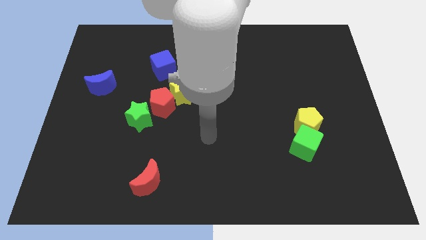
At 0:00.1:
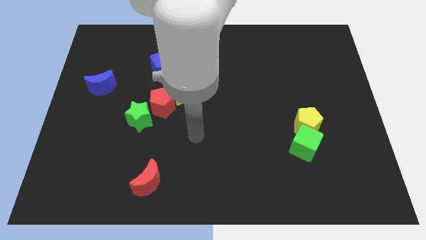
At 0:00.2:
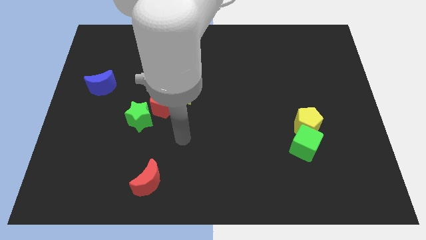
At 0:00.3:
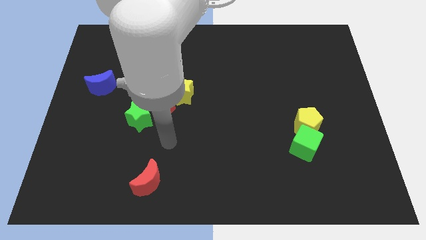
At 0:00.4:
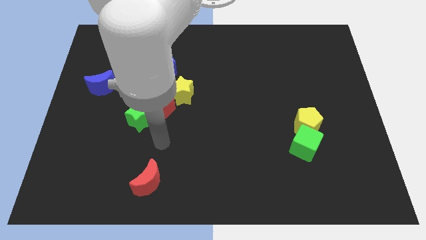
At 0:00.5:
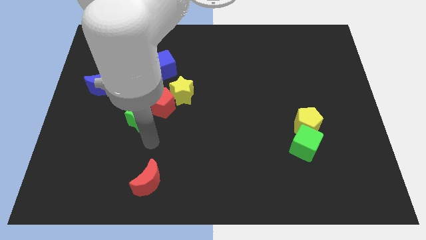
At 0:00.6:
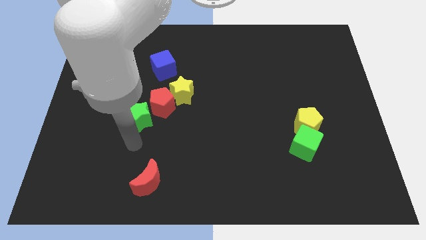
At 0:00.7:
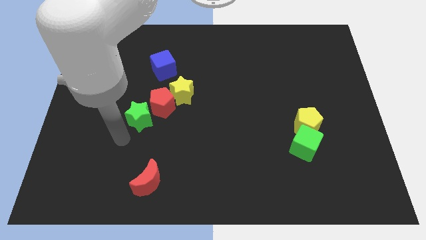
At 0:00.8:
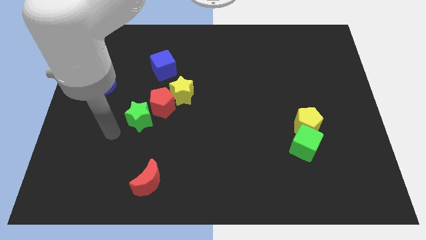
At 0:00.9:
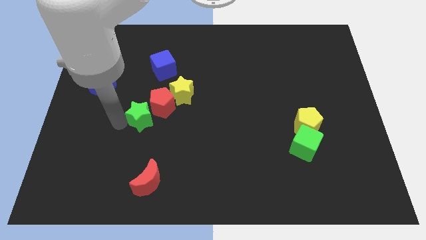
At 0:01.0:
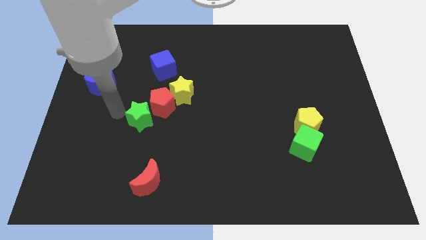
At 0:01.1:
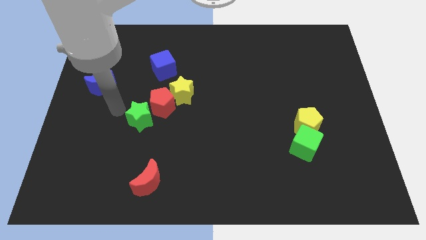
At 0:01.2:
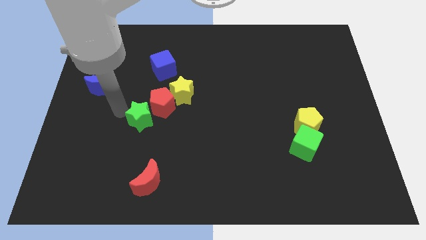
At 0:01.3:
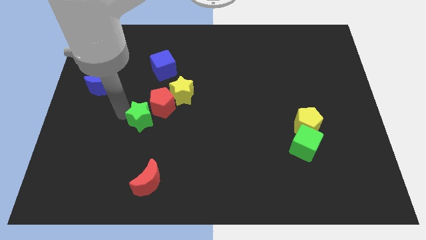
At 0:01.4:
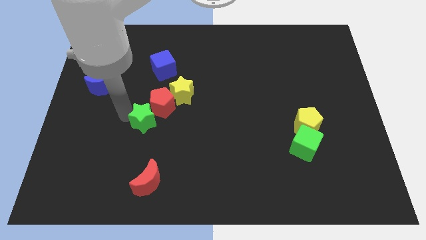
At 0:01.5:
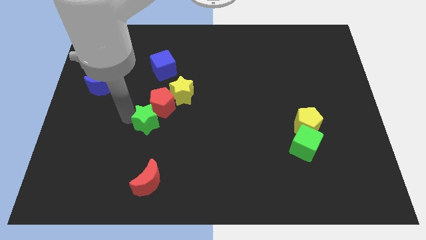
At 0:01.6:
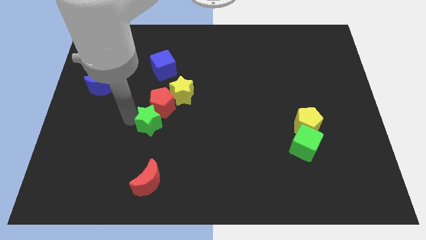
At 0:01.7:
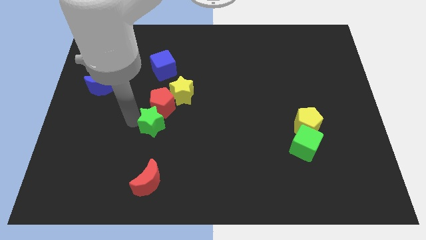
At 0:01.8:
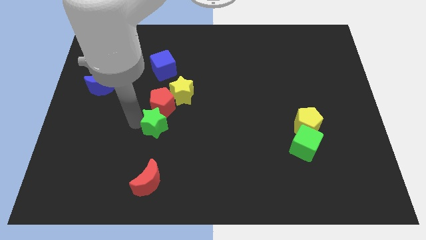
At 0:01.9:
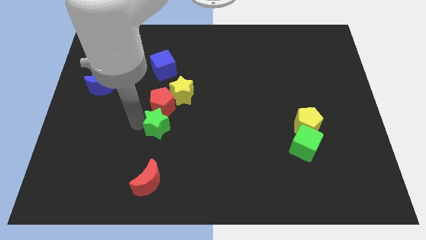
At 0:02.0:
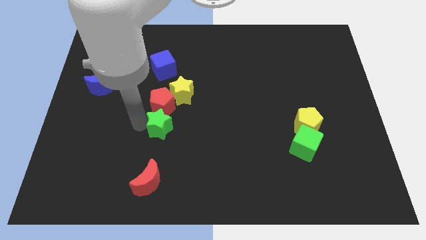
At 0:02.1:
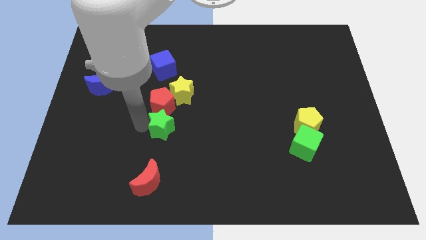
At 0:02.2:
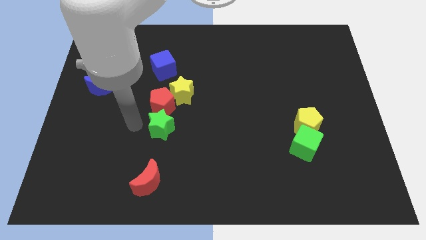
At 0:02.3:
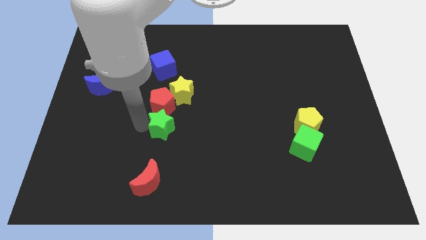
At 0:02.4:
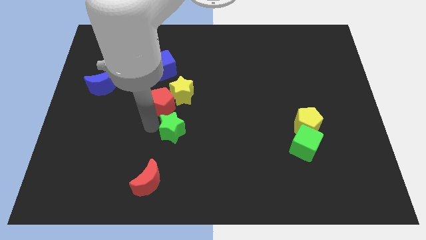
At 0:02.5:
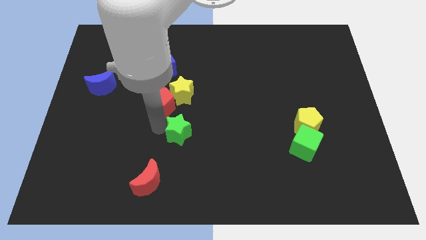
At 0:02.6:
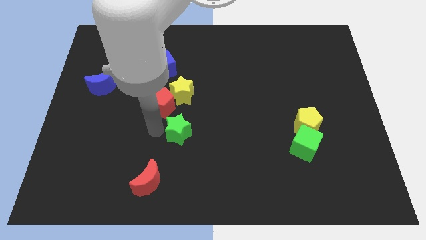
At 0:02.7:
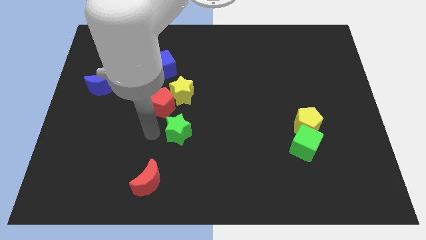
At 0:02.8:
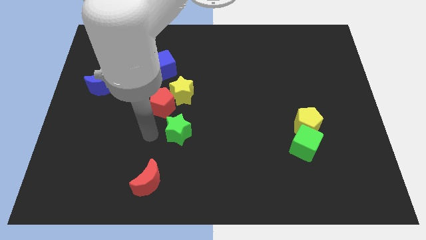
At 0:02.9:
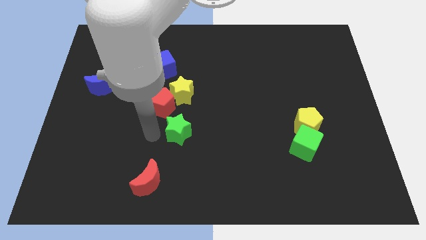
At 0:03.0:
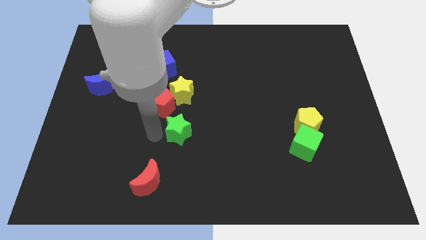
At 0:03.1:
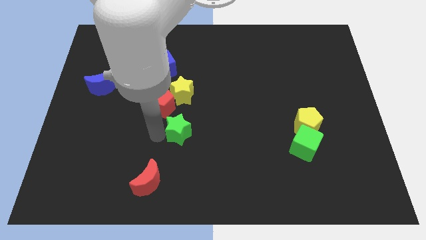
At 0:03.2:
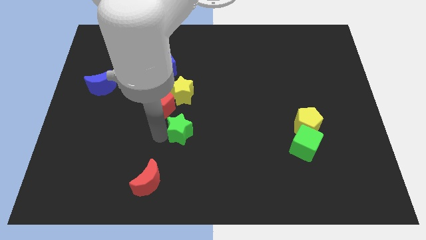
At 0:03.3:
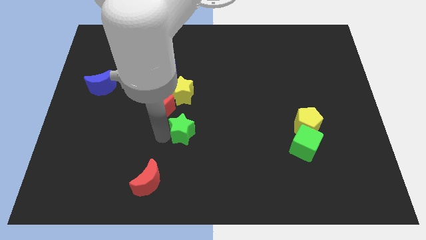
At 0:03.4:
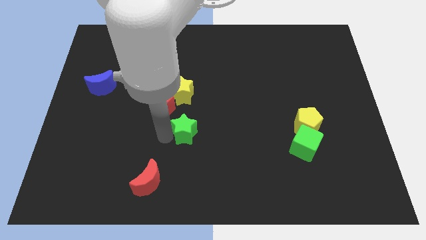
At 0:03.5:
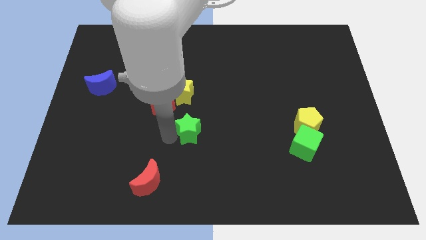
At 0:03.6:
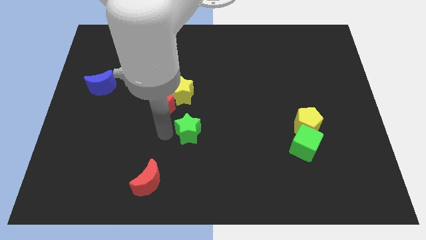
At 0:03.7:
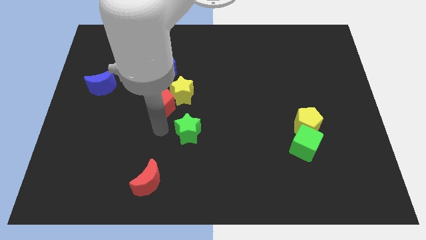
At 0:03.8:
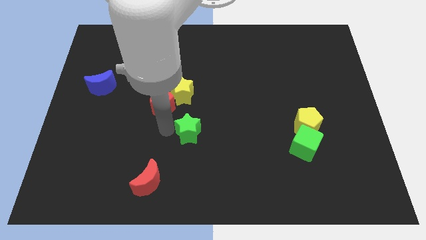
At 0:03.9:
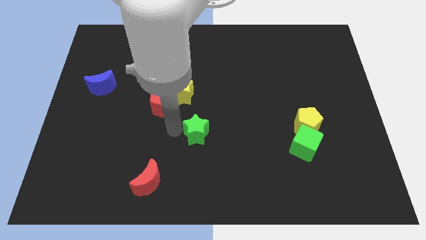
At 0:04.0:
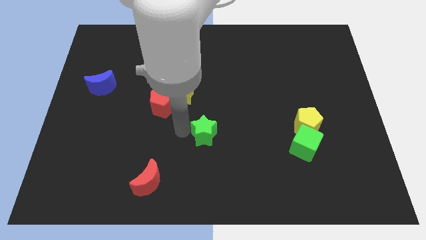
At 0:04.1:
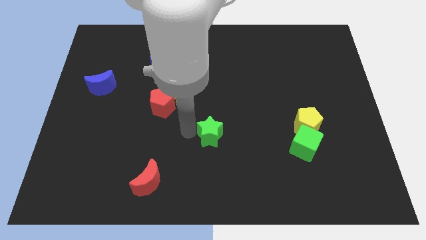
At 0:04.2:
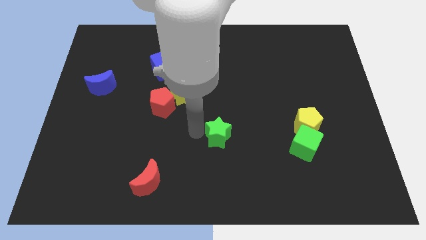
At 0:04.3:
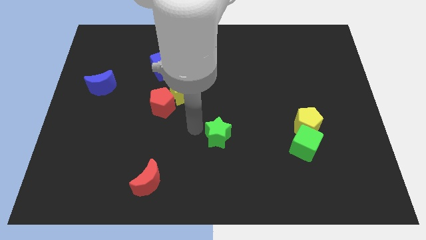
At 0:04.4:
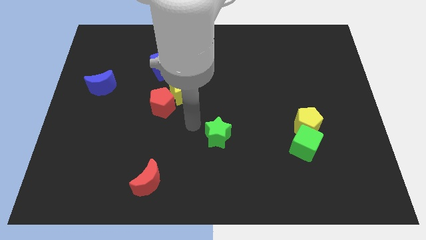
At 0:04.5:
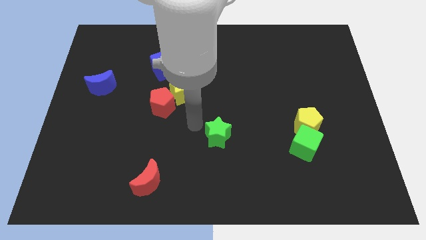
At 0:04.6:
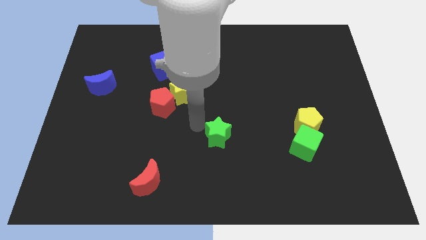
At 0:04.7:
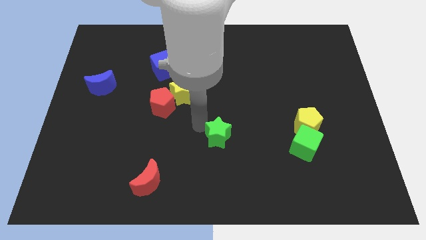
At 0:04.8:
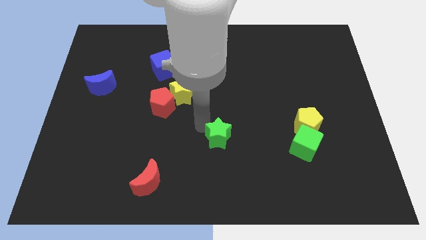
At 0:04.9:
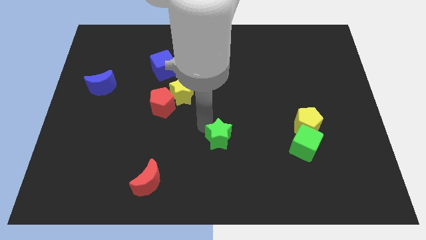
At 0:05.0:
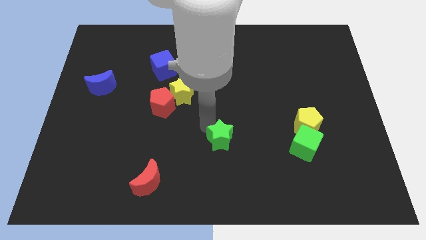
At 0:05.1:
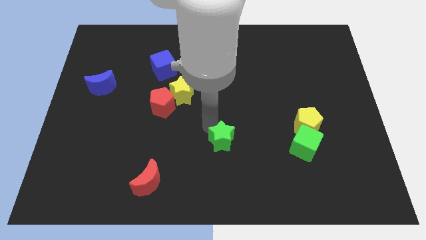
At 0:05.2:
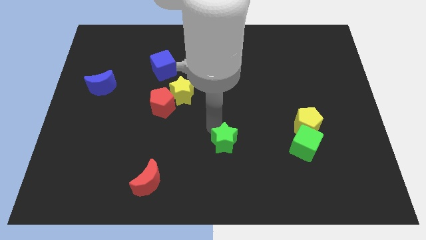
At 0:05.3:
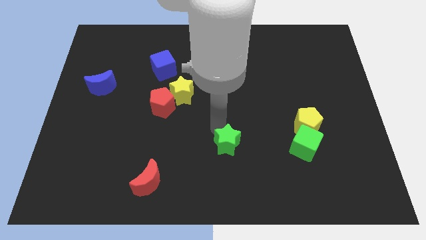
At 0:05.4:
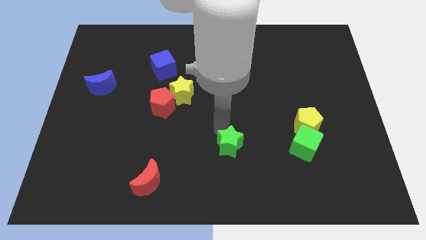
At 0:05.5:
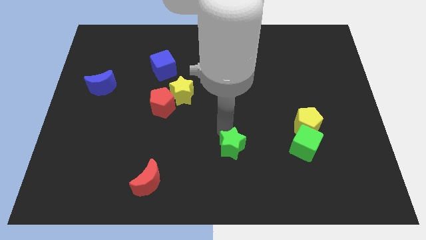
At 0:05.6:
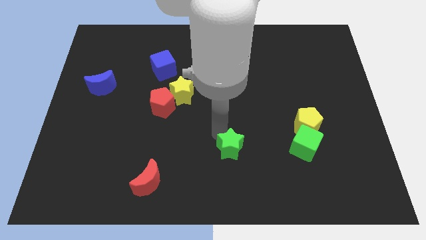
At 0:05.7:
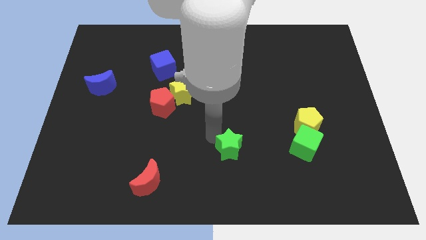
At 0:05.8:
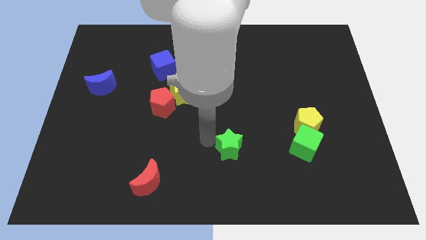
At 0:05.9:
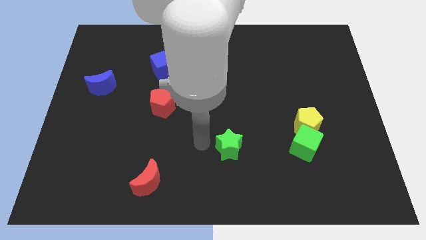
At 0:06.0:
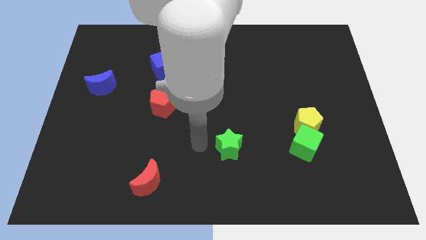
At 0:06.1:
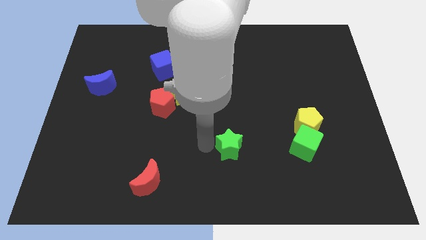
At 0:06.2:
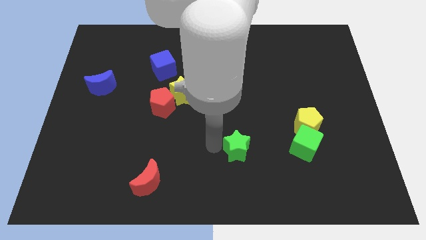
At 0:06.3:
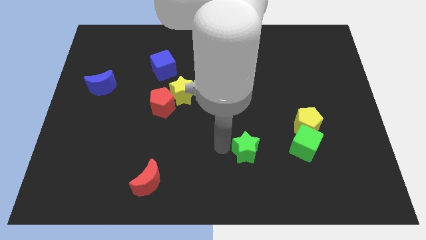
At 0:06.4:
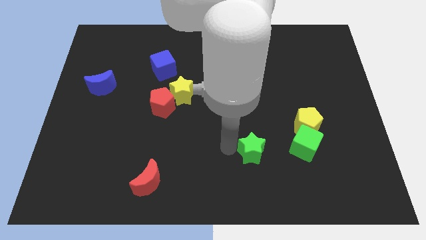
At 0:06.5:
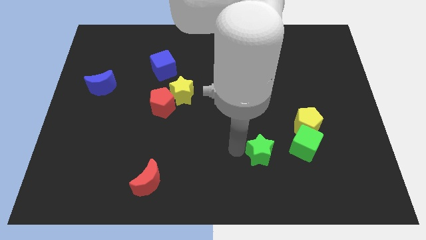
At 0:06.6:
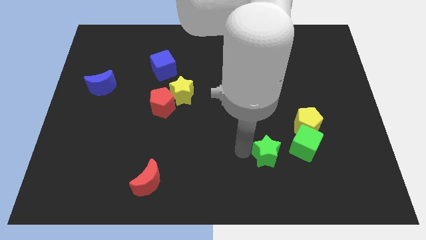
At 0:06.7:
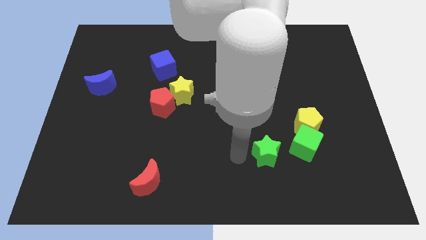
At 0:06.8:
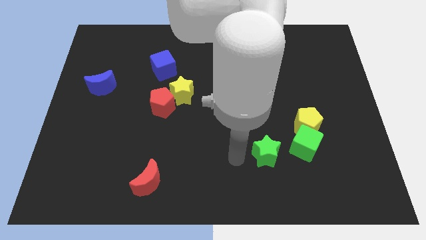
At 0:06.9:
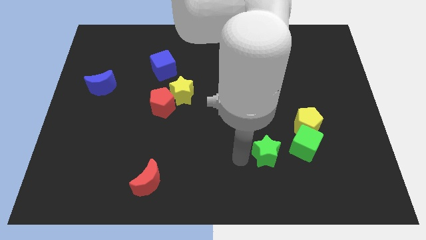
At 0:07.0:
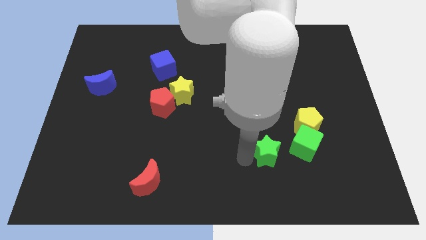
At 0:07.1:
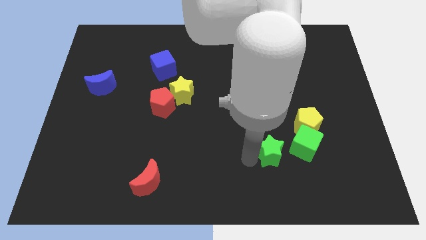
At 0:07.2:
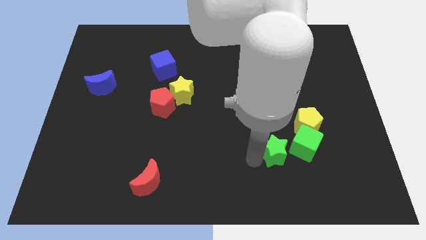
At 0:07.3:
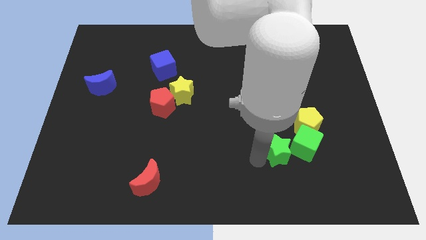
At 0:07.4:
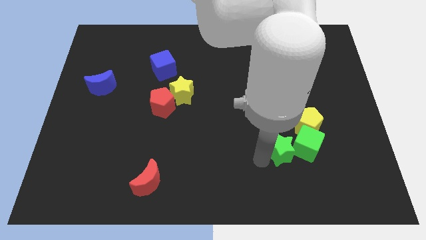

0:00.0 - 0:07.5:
slide the green star close to the green cube
